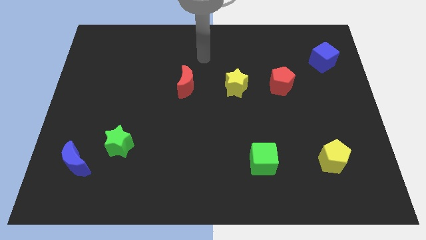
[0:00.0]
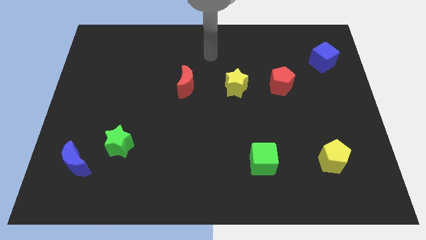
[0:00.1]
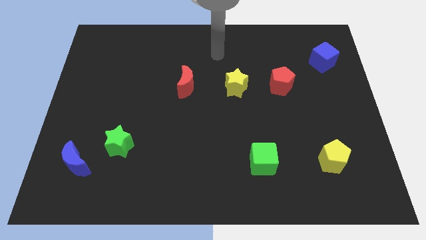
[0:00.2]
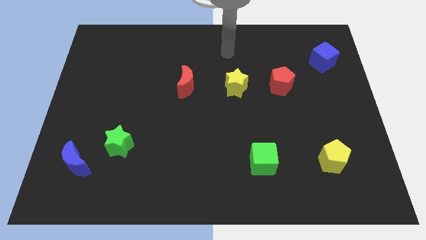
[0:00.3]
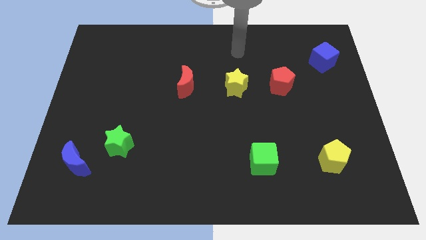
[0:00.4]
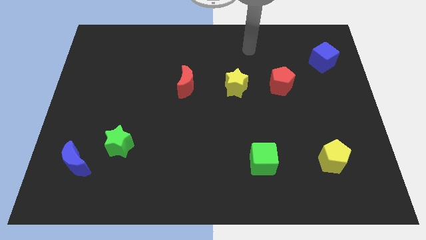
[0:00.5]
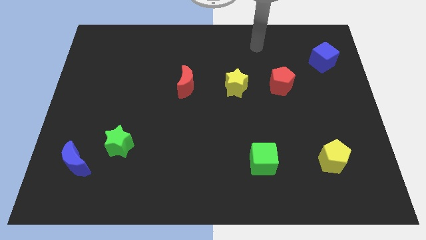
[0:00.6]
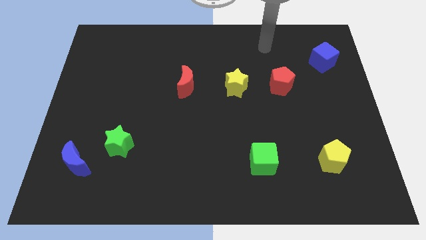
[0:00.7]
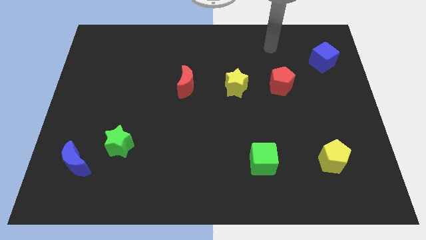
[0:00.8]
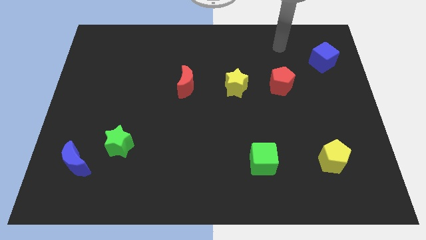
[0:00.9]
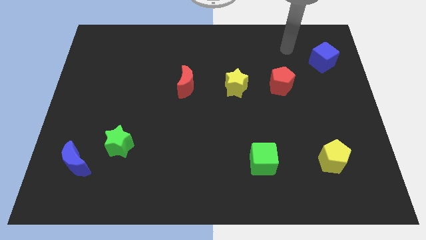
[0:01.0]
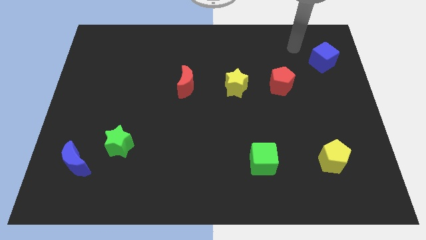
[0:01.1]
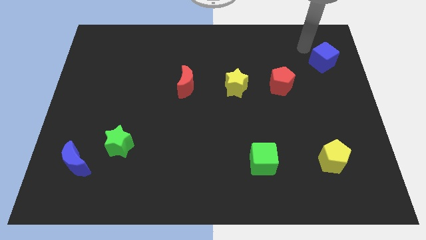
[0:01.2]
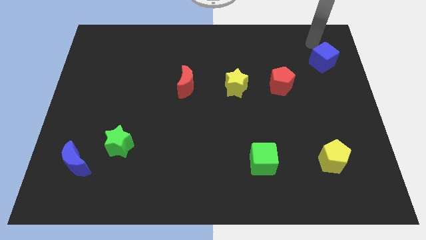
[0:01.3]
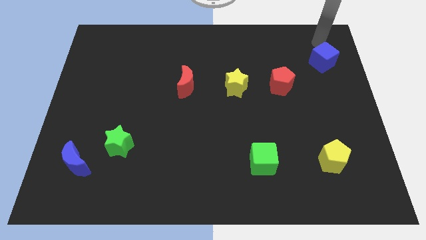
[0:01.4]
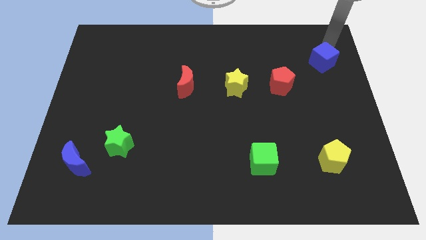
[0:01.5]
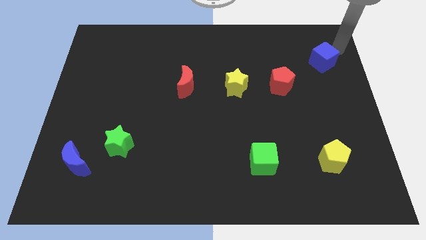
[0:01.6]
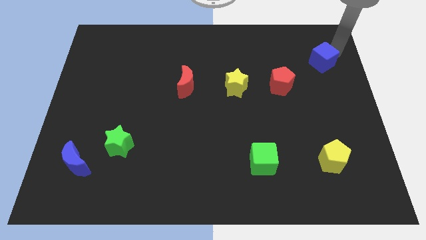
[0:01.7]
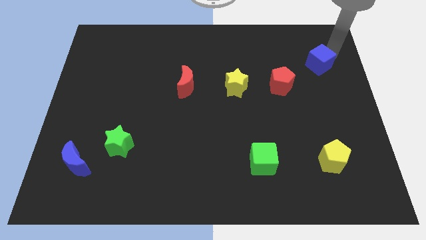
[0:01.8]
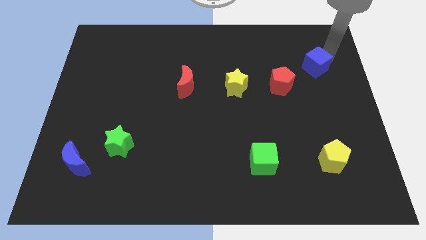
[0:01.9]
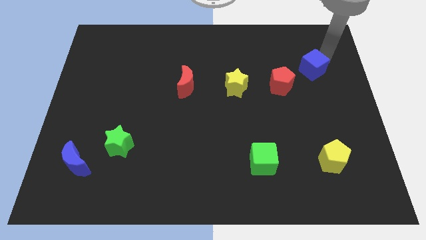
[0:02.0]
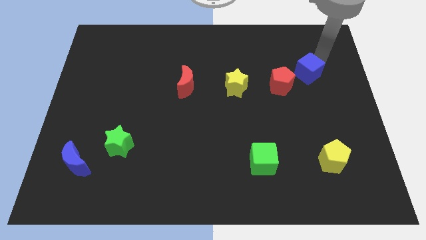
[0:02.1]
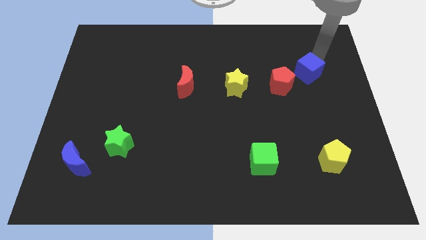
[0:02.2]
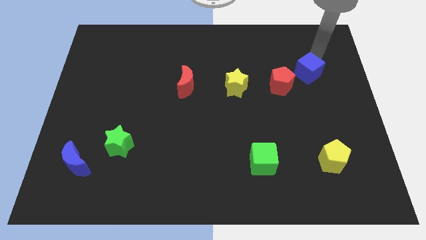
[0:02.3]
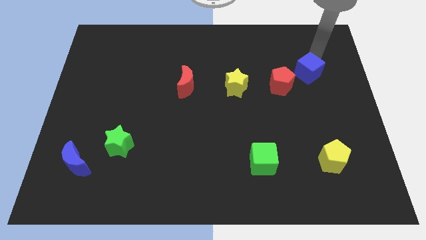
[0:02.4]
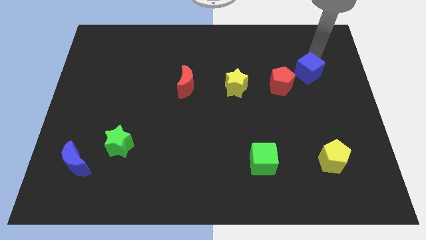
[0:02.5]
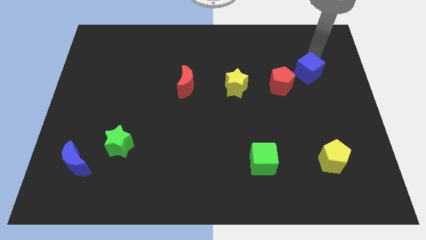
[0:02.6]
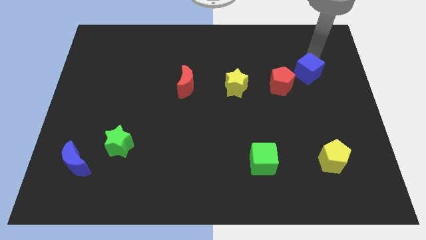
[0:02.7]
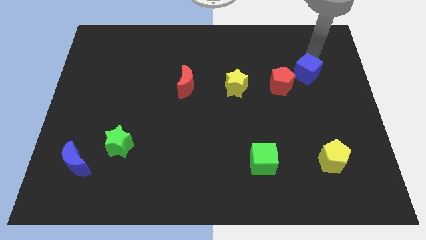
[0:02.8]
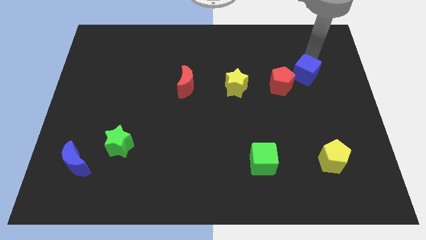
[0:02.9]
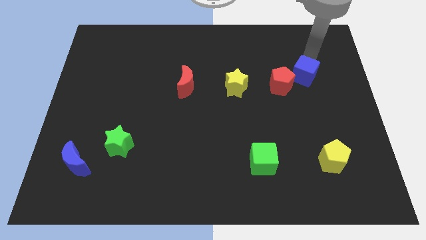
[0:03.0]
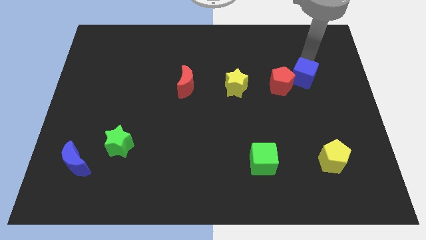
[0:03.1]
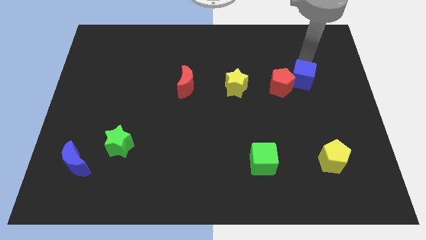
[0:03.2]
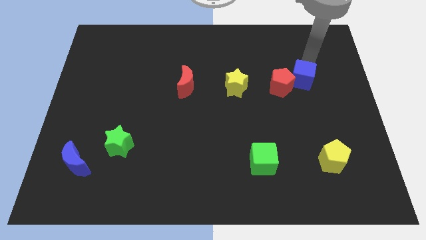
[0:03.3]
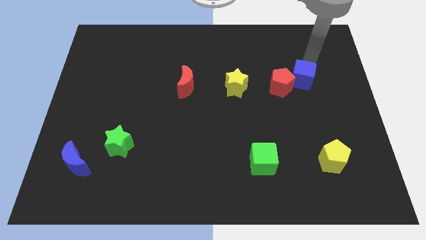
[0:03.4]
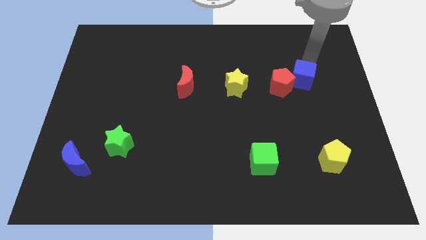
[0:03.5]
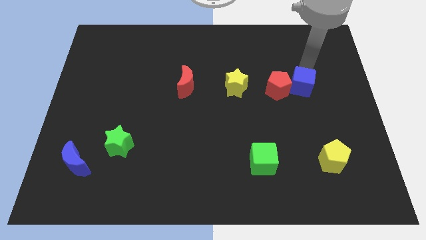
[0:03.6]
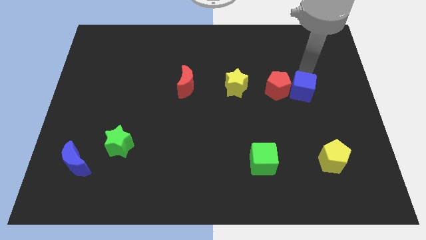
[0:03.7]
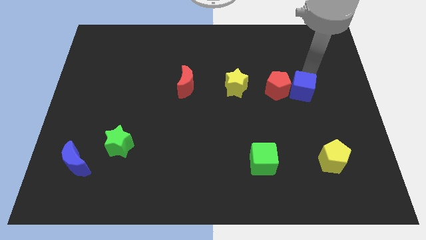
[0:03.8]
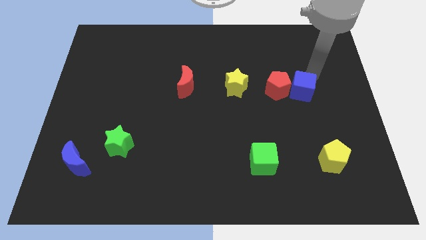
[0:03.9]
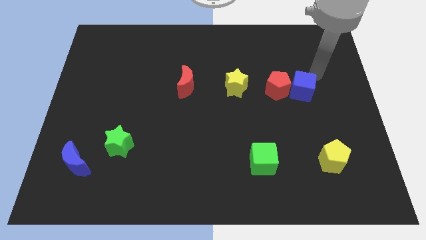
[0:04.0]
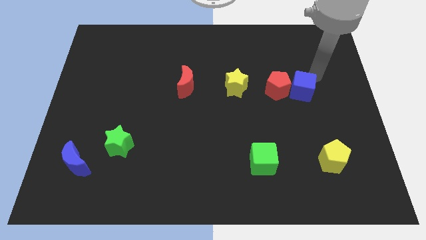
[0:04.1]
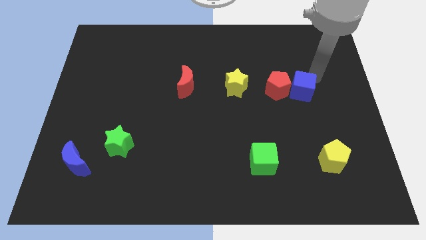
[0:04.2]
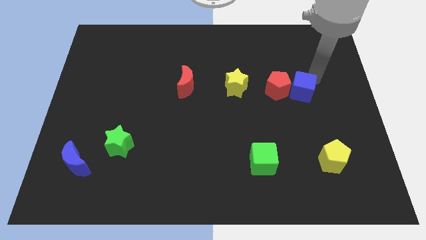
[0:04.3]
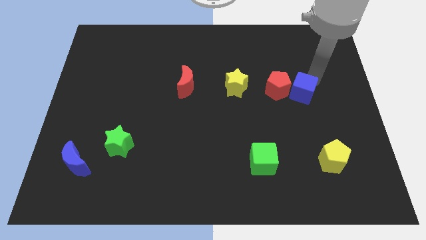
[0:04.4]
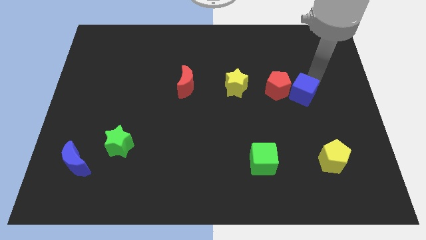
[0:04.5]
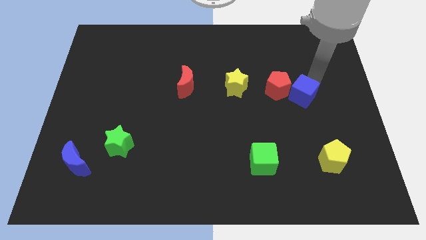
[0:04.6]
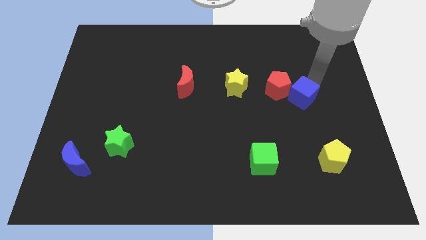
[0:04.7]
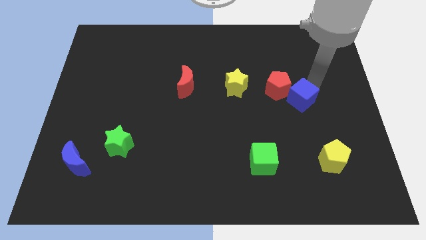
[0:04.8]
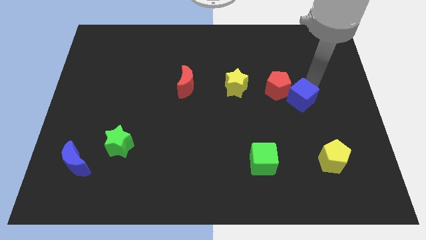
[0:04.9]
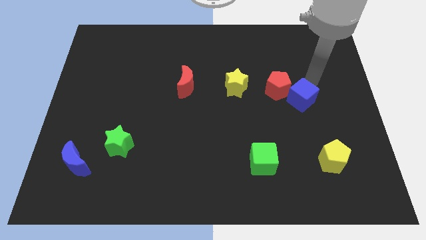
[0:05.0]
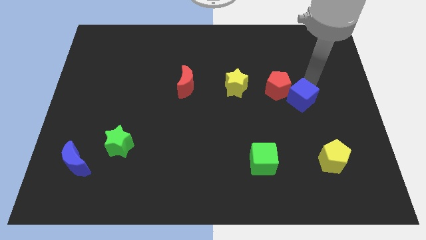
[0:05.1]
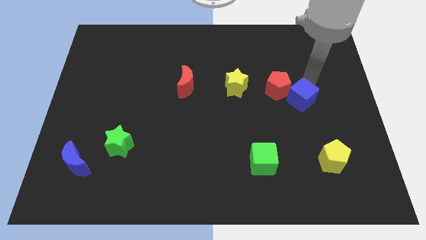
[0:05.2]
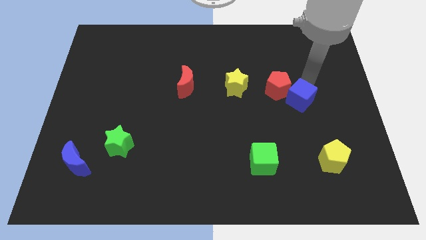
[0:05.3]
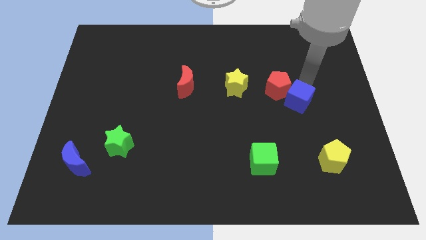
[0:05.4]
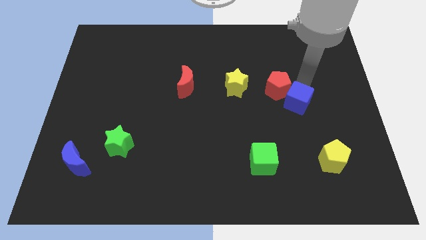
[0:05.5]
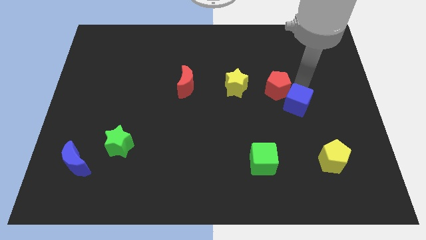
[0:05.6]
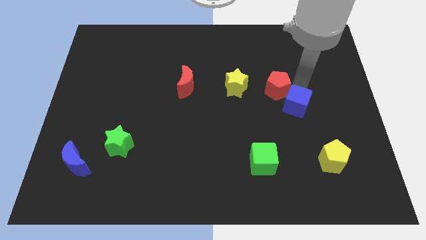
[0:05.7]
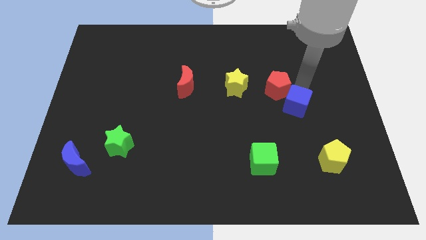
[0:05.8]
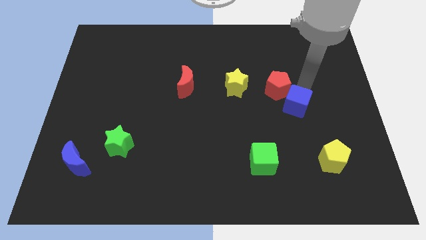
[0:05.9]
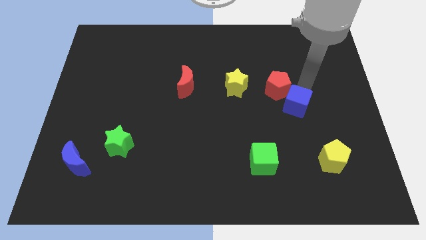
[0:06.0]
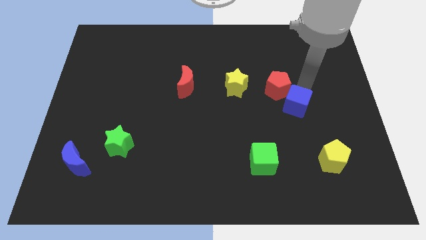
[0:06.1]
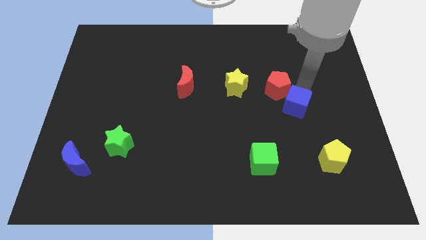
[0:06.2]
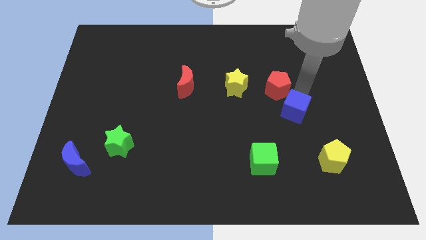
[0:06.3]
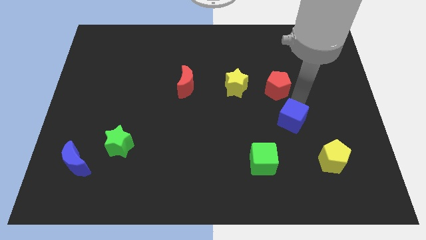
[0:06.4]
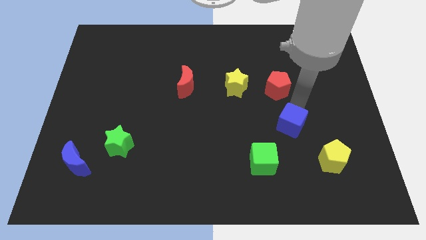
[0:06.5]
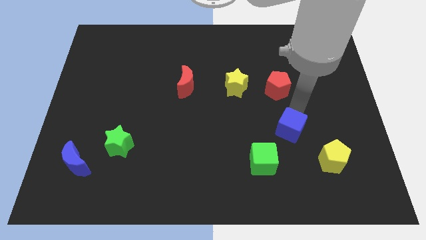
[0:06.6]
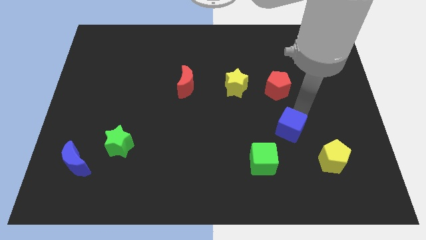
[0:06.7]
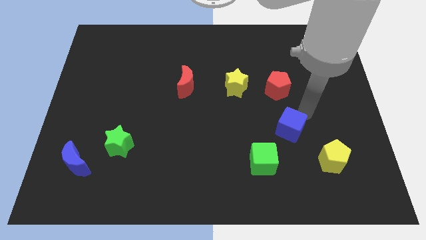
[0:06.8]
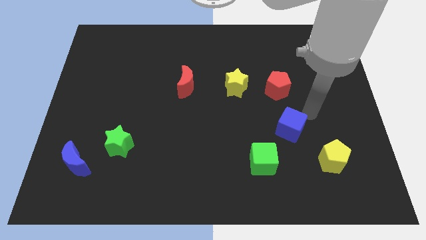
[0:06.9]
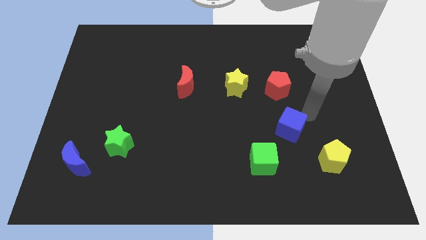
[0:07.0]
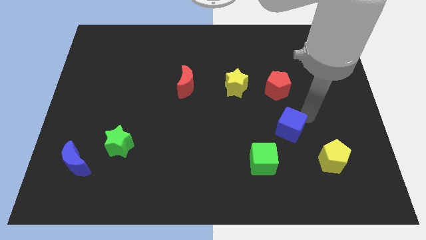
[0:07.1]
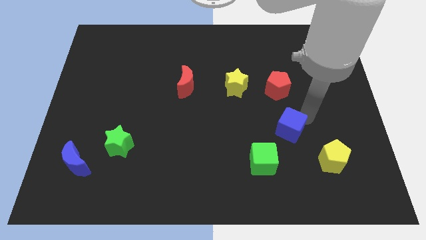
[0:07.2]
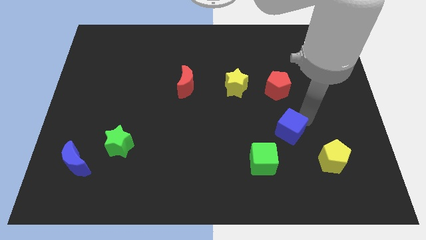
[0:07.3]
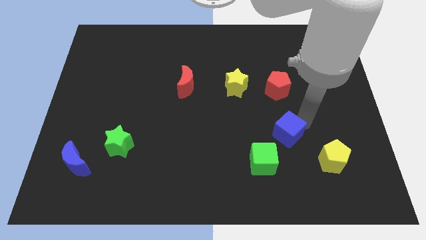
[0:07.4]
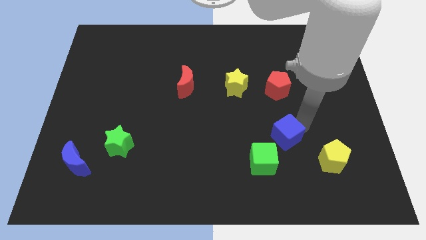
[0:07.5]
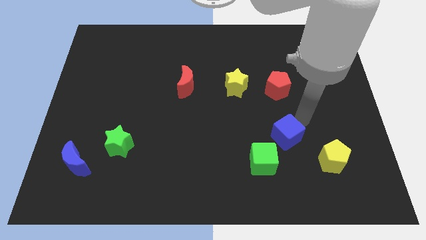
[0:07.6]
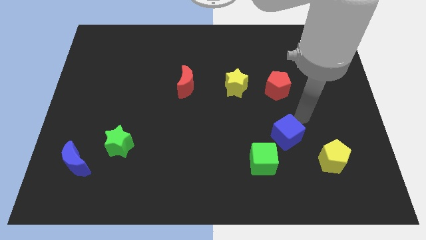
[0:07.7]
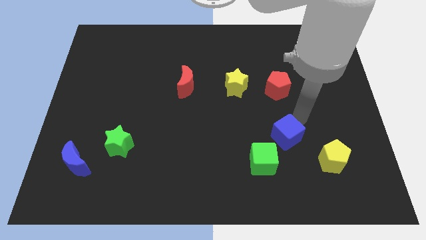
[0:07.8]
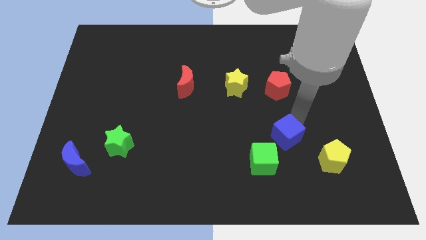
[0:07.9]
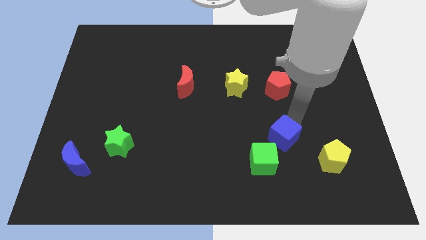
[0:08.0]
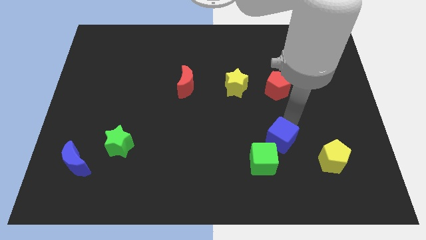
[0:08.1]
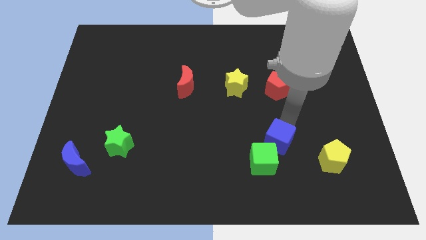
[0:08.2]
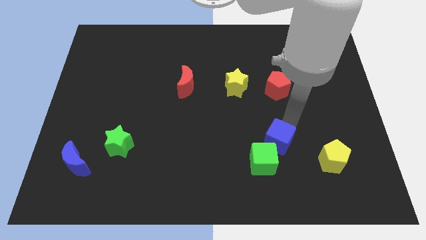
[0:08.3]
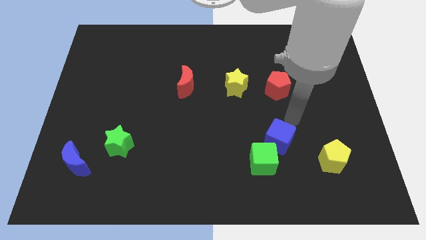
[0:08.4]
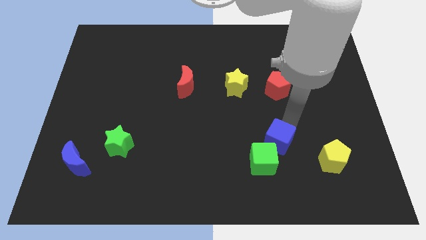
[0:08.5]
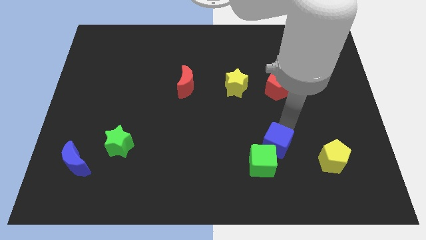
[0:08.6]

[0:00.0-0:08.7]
move the blue cube towards the green cube
